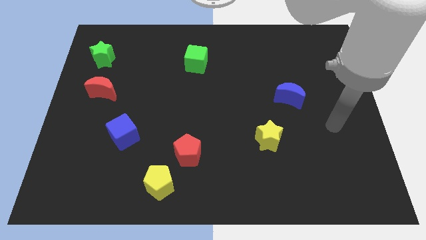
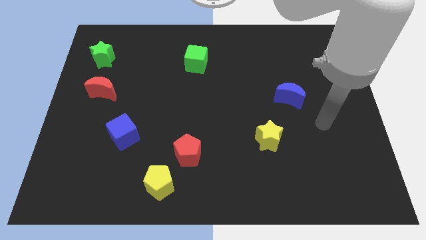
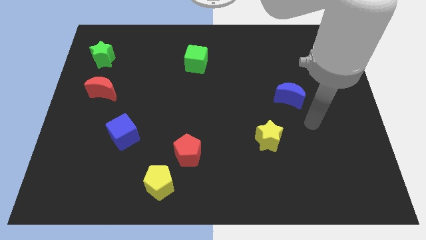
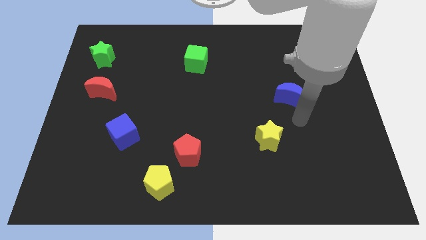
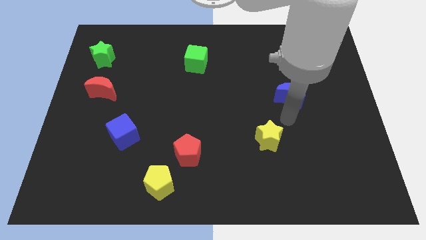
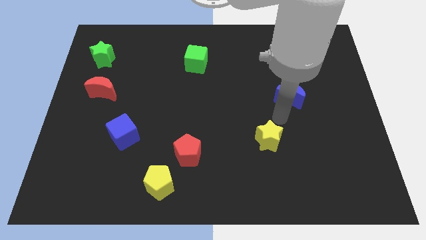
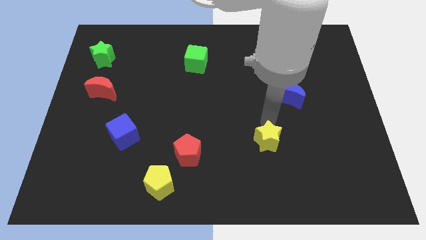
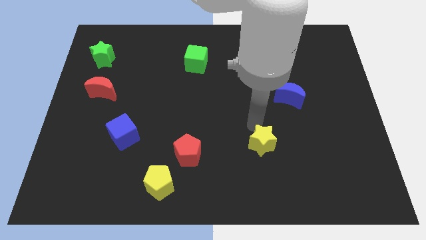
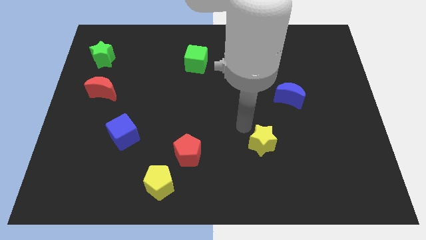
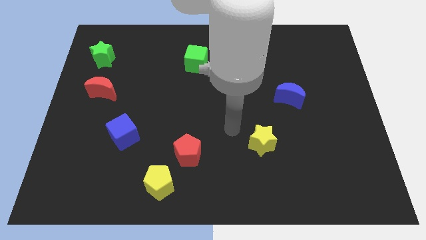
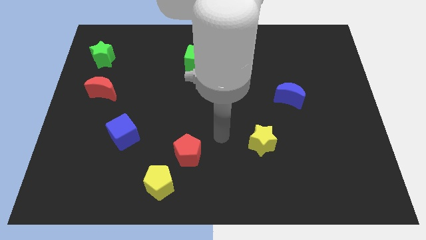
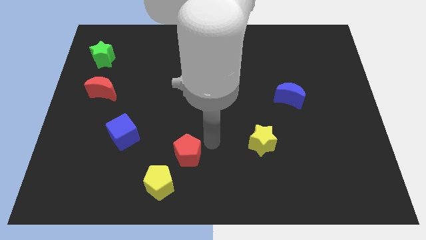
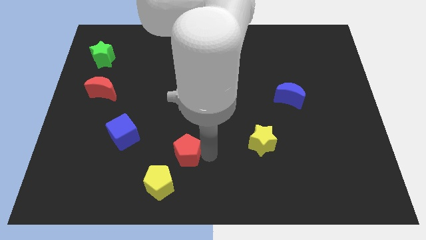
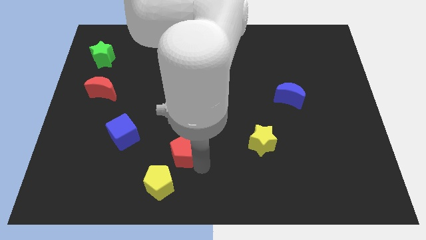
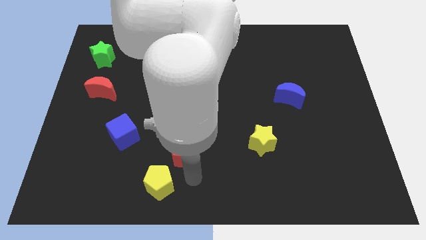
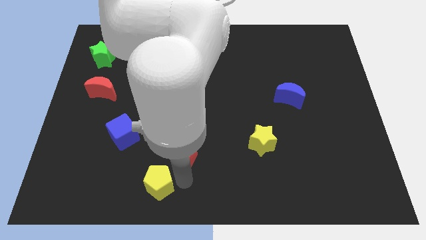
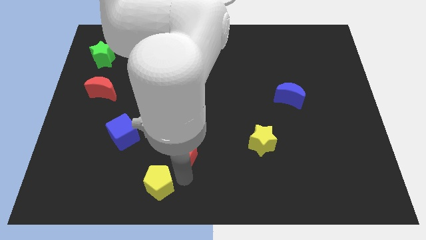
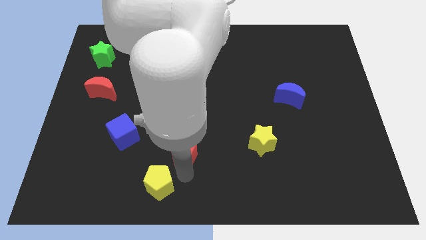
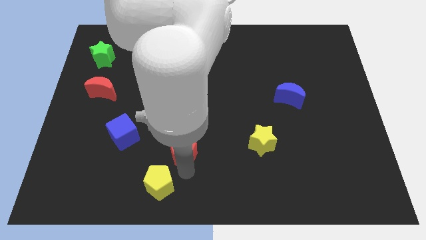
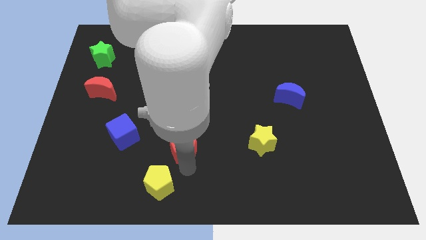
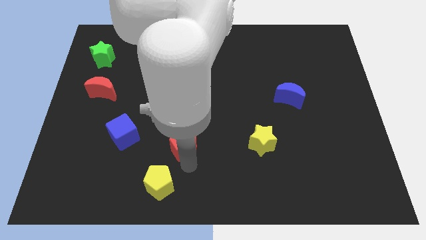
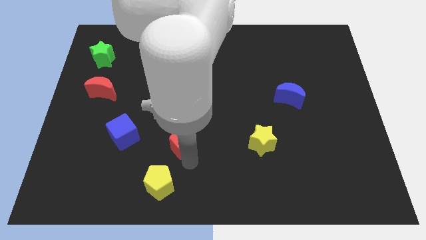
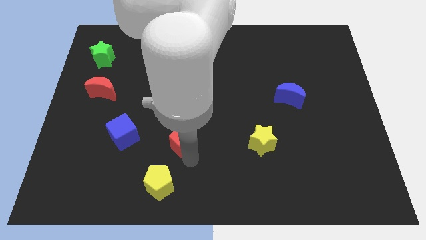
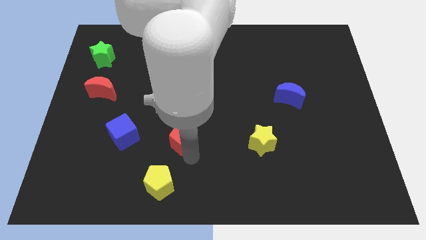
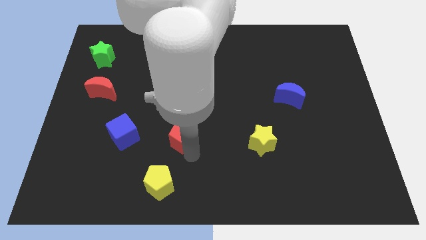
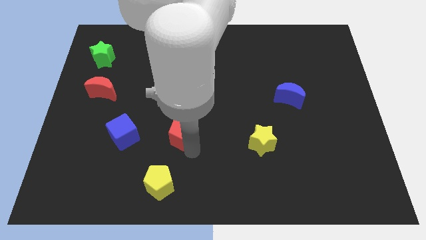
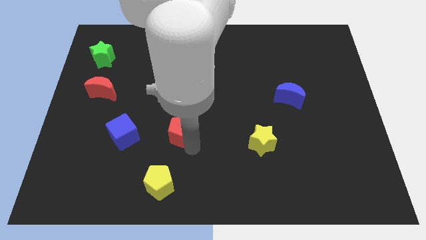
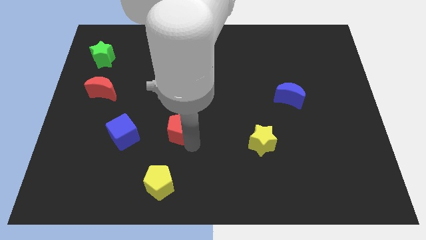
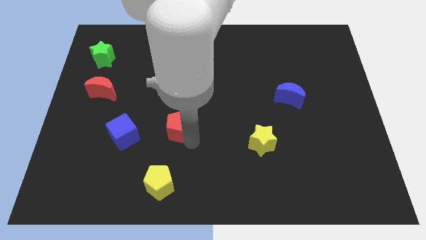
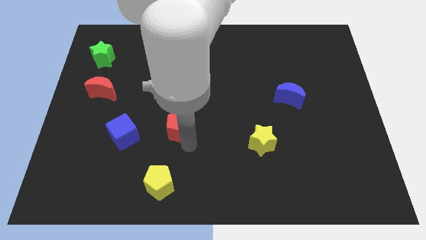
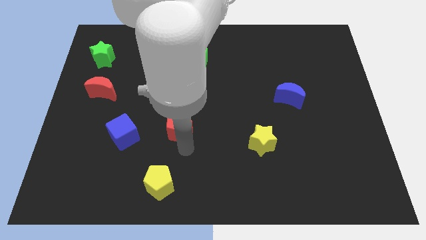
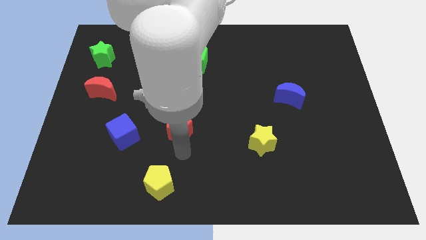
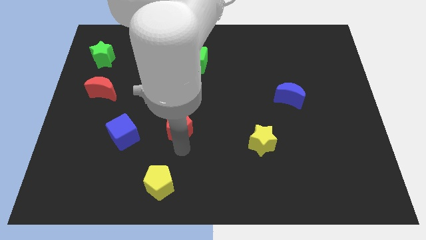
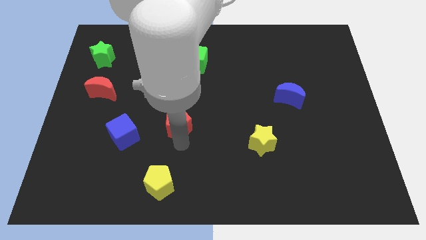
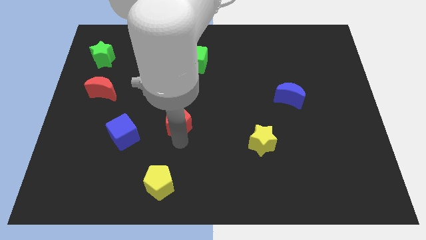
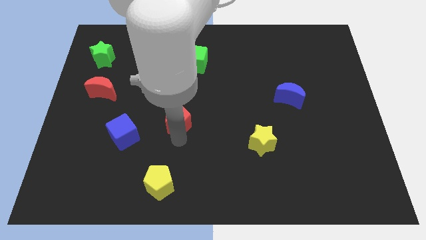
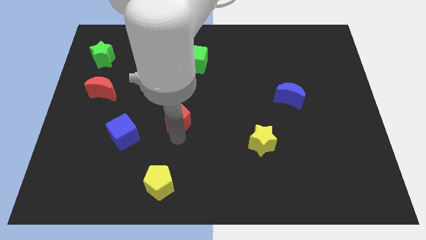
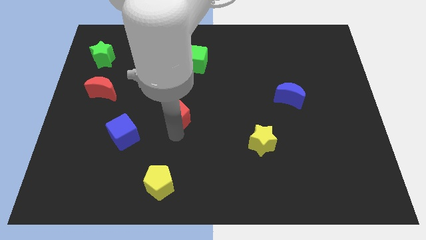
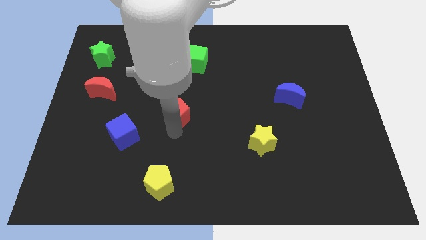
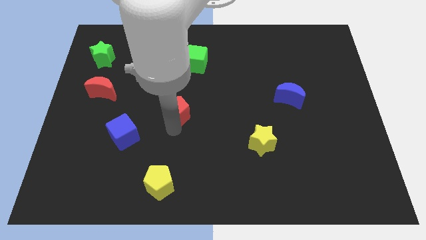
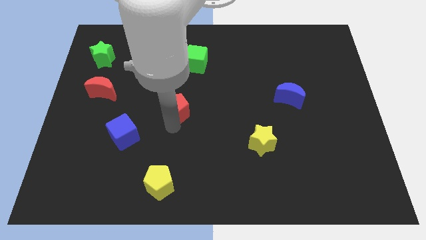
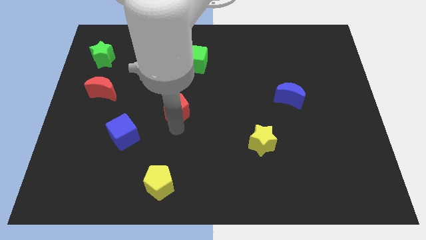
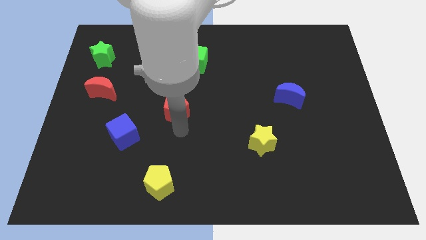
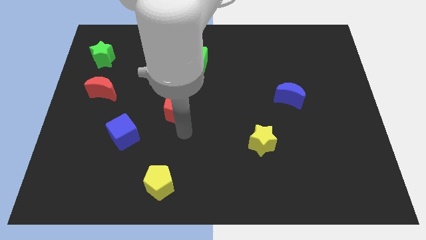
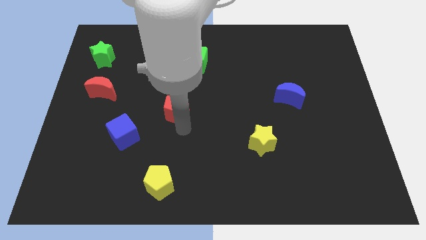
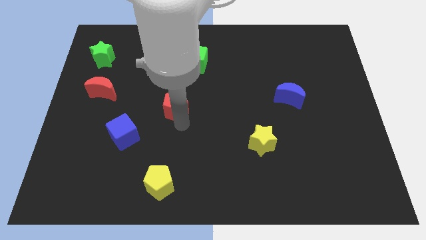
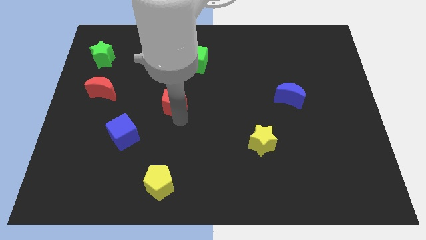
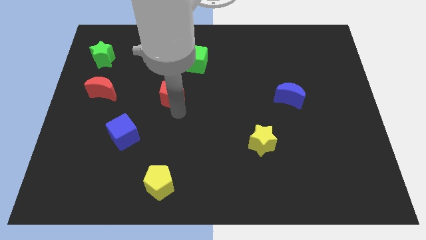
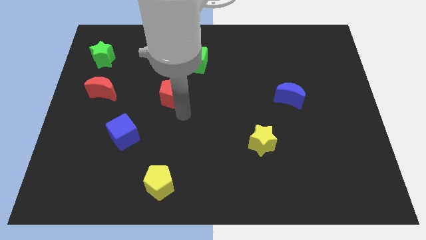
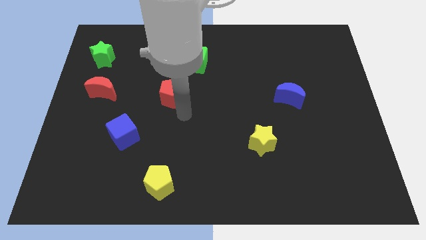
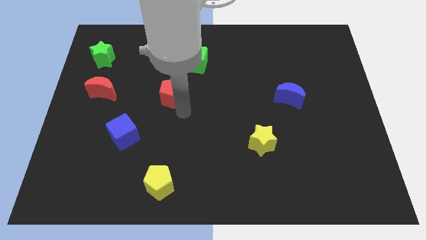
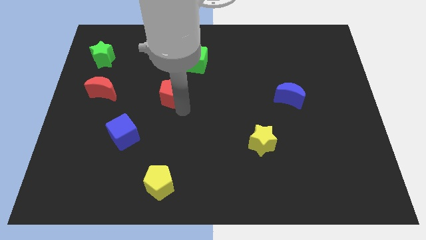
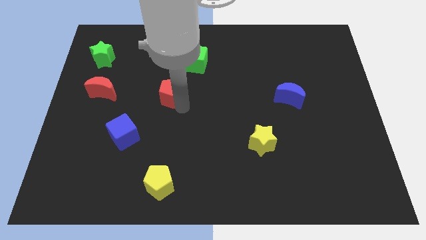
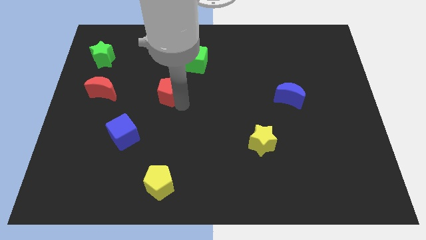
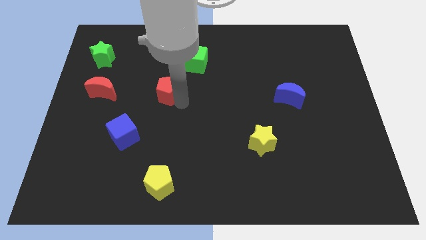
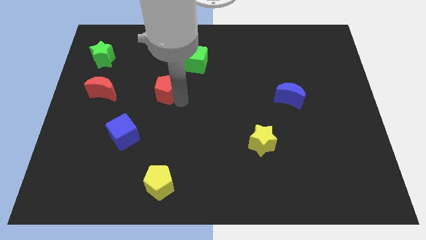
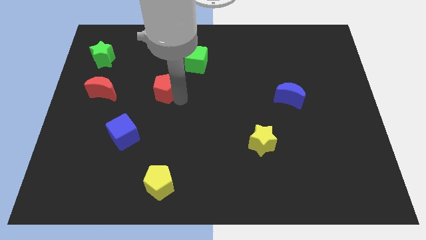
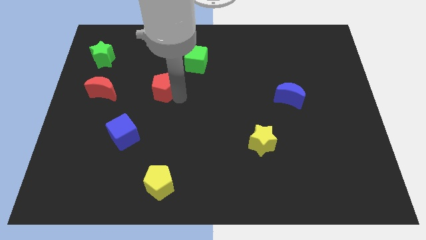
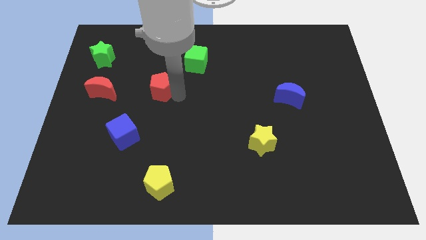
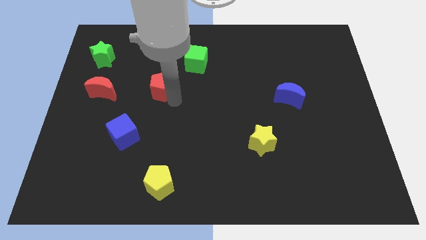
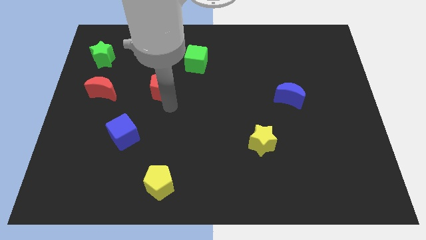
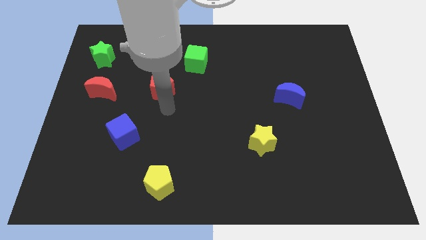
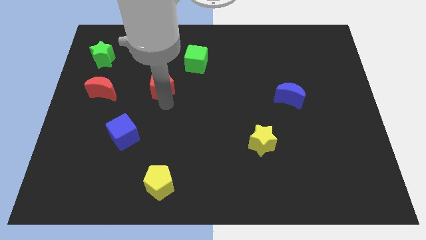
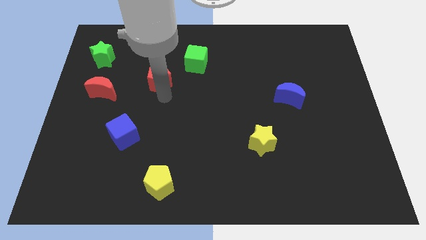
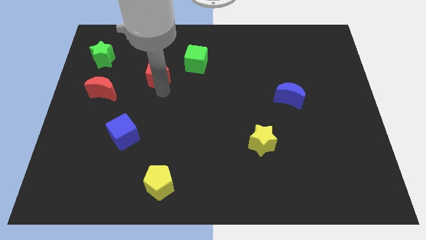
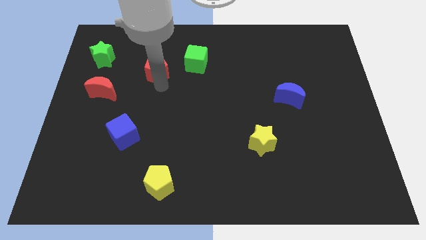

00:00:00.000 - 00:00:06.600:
move the red pentagon left of the green cube
